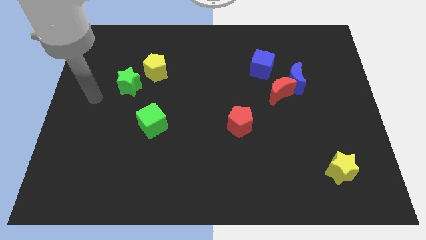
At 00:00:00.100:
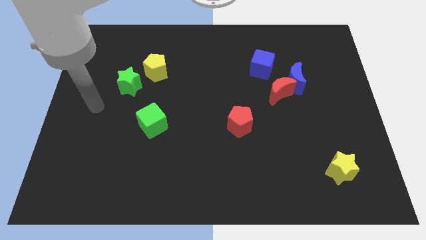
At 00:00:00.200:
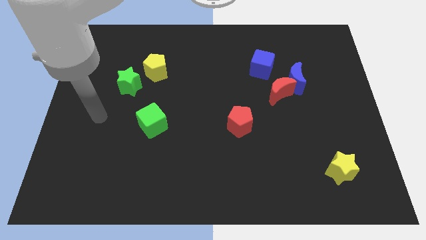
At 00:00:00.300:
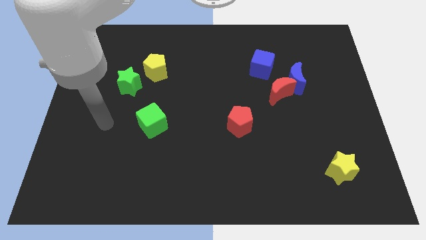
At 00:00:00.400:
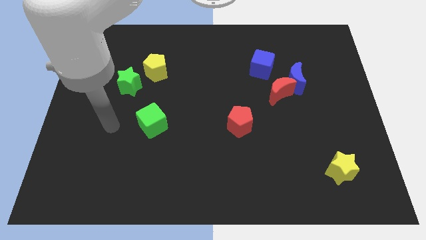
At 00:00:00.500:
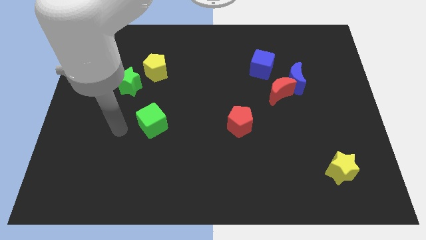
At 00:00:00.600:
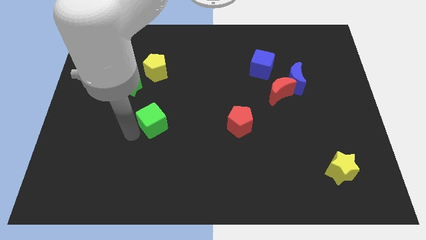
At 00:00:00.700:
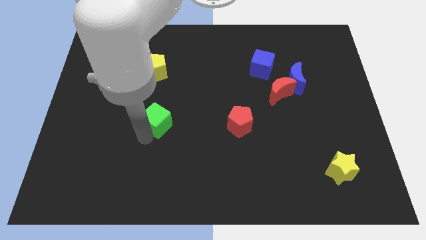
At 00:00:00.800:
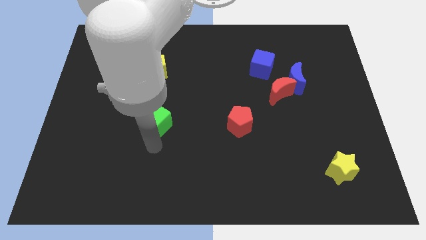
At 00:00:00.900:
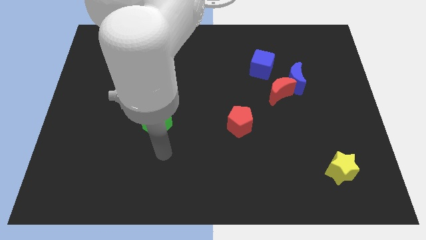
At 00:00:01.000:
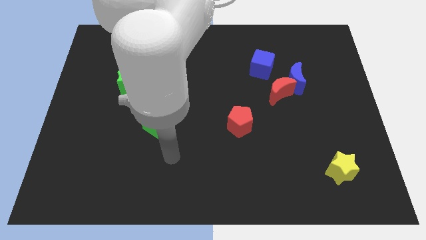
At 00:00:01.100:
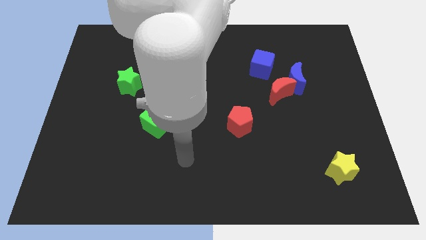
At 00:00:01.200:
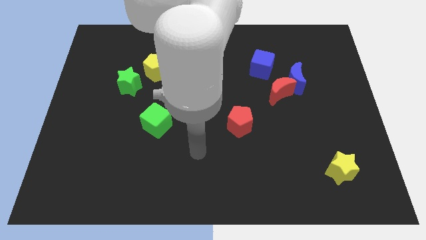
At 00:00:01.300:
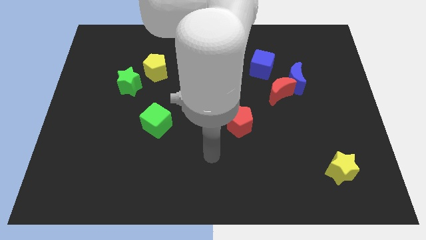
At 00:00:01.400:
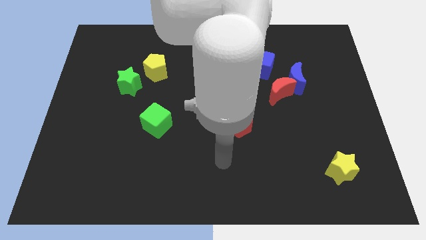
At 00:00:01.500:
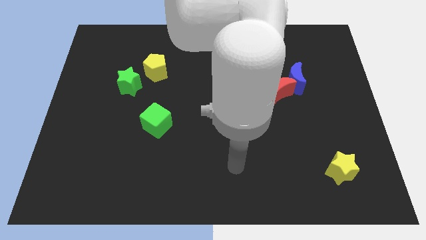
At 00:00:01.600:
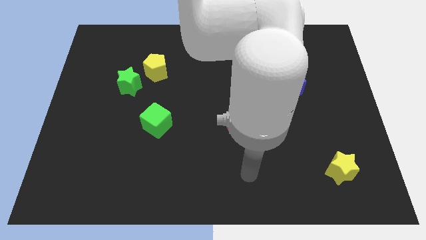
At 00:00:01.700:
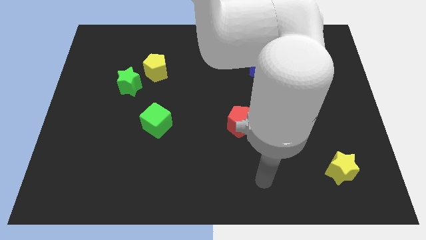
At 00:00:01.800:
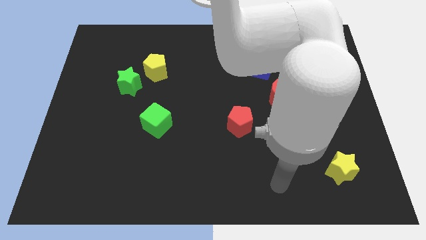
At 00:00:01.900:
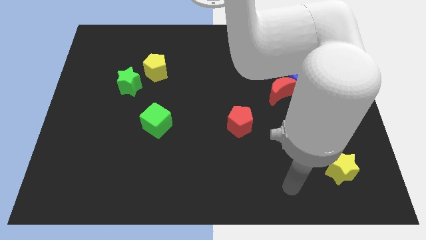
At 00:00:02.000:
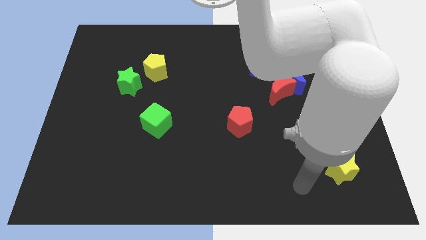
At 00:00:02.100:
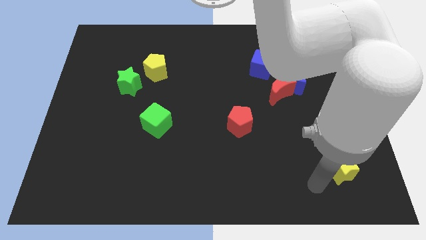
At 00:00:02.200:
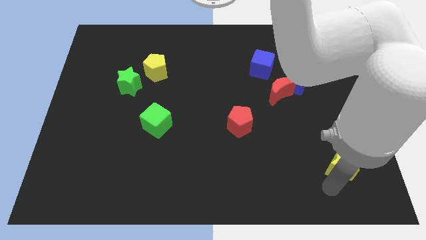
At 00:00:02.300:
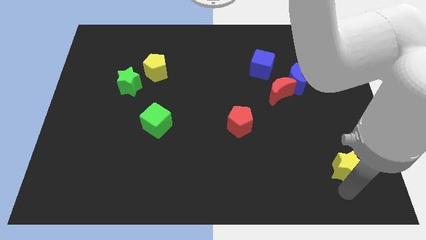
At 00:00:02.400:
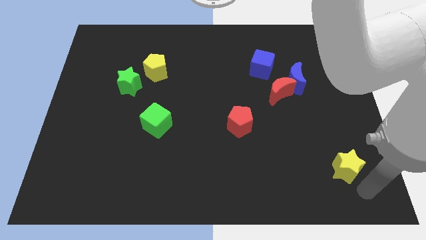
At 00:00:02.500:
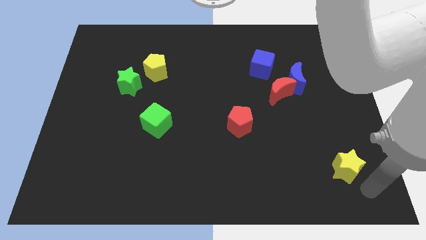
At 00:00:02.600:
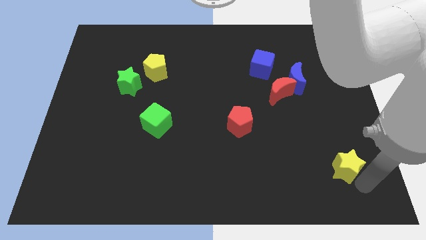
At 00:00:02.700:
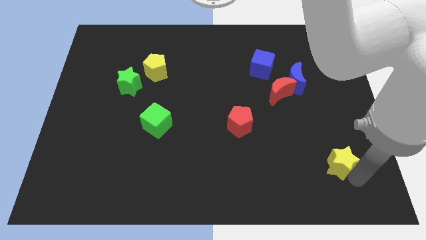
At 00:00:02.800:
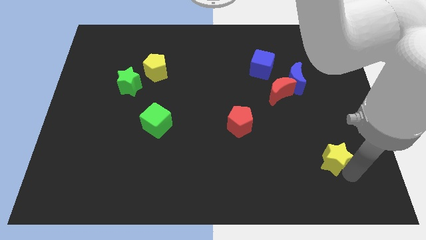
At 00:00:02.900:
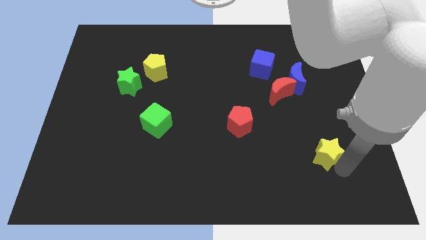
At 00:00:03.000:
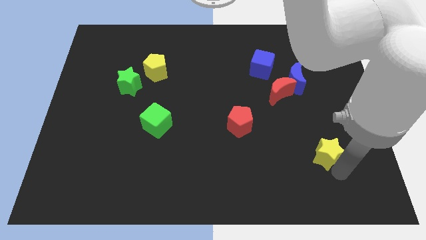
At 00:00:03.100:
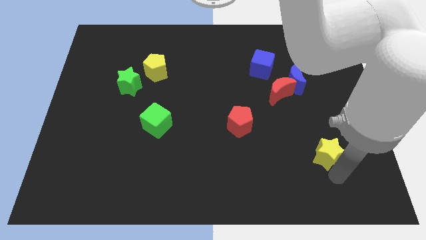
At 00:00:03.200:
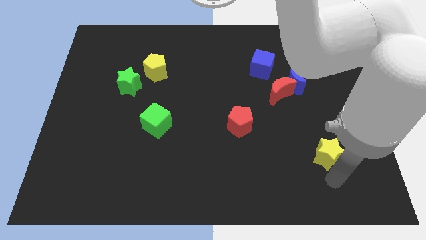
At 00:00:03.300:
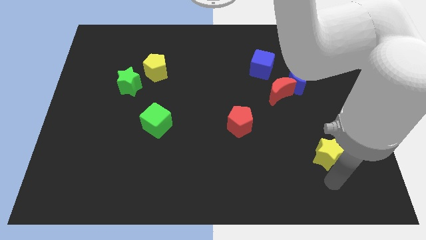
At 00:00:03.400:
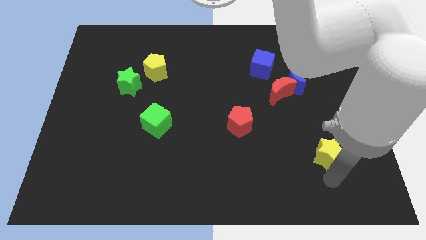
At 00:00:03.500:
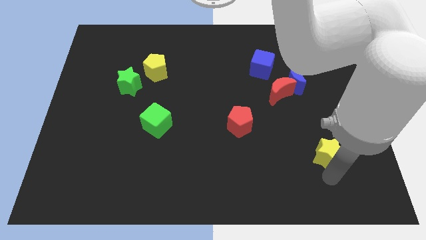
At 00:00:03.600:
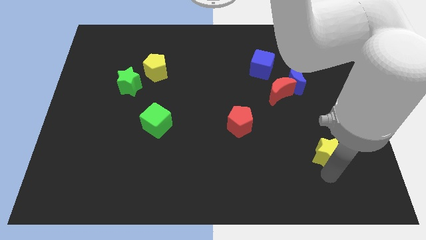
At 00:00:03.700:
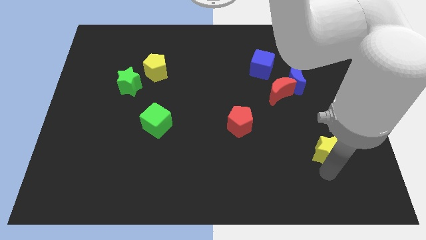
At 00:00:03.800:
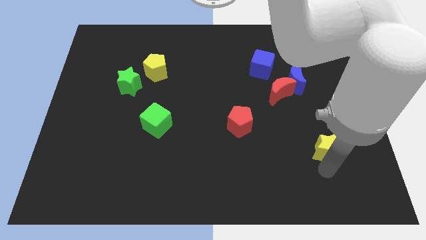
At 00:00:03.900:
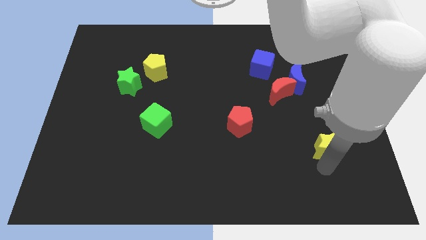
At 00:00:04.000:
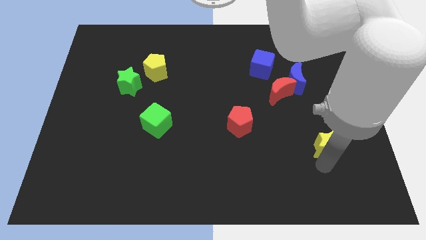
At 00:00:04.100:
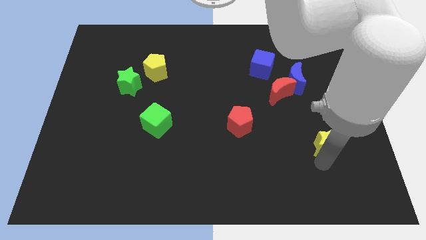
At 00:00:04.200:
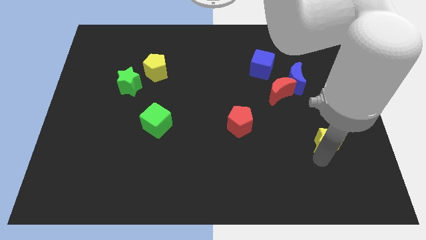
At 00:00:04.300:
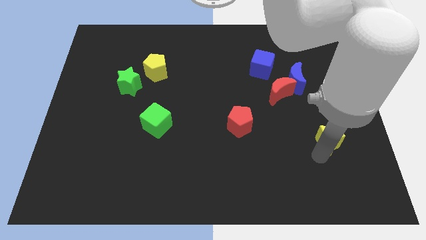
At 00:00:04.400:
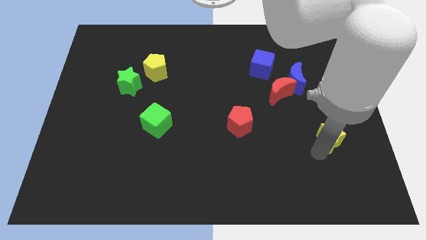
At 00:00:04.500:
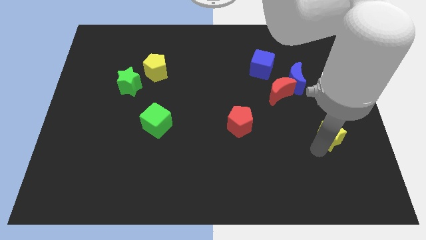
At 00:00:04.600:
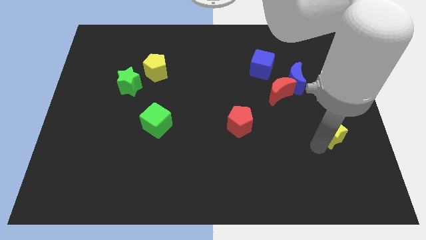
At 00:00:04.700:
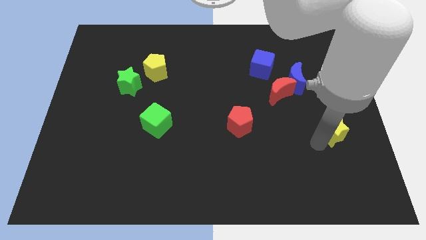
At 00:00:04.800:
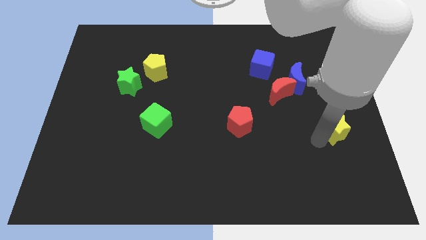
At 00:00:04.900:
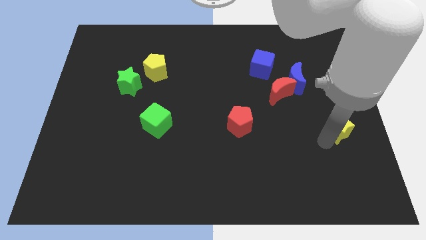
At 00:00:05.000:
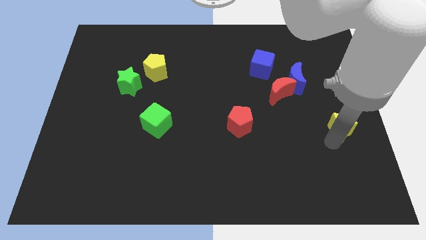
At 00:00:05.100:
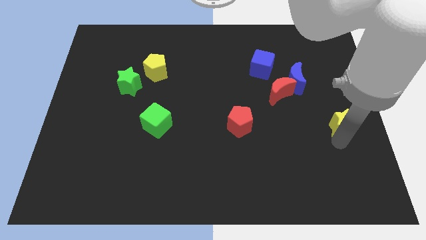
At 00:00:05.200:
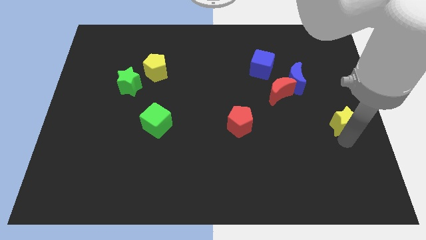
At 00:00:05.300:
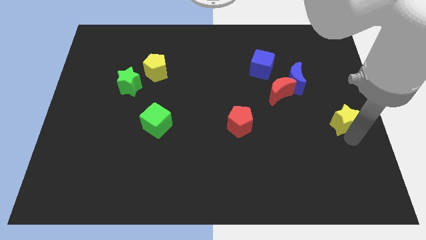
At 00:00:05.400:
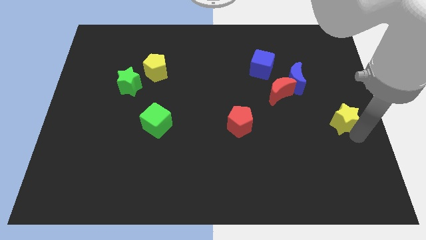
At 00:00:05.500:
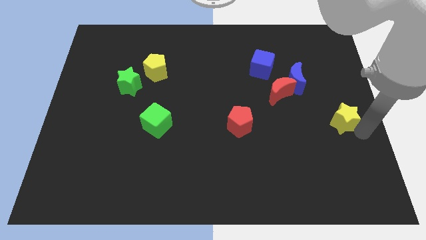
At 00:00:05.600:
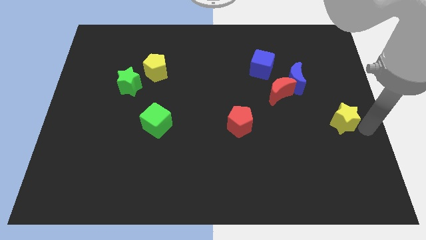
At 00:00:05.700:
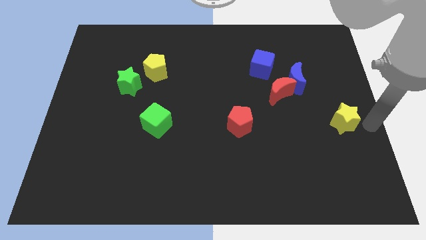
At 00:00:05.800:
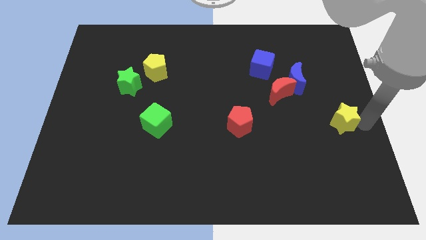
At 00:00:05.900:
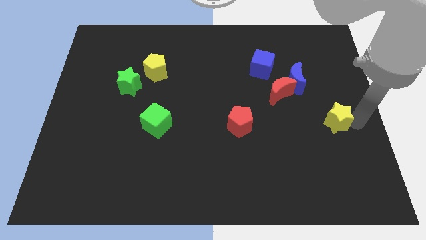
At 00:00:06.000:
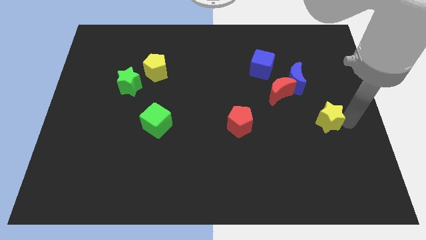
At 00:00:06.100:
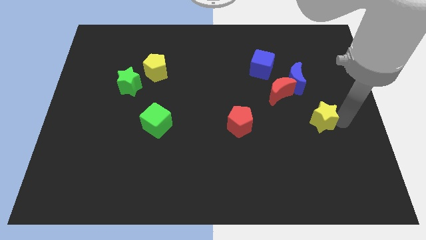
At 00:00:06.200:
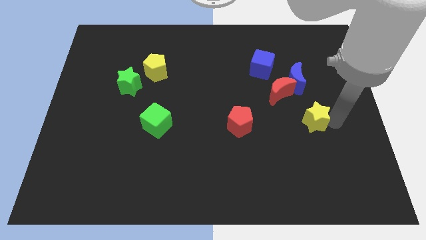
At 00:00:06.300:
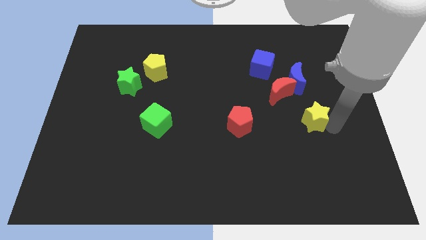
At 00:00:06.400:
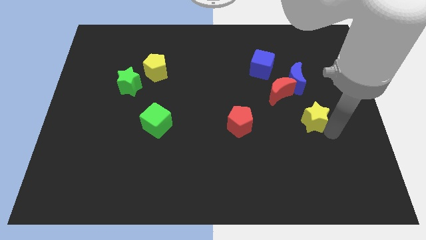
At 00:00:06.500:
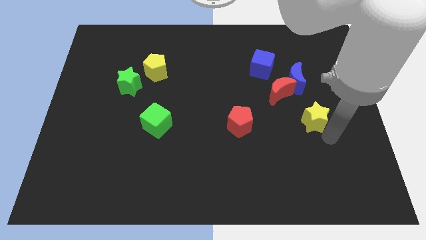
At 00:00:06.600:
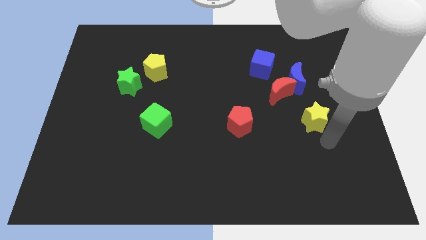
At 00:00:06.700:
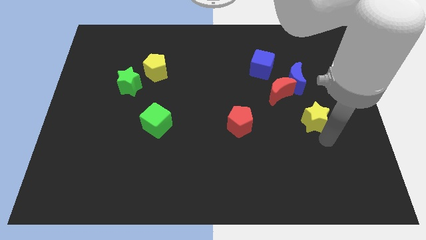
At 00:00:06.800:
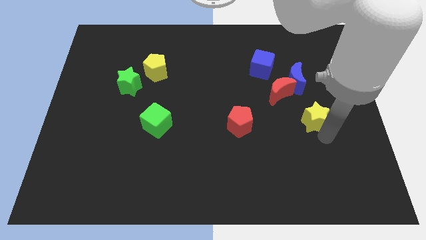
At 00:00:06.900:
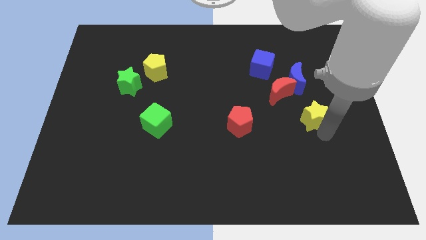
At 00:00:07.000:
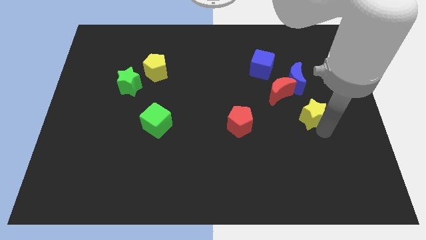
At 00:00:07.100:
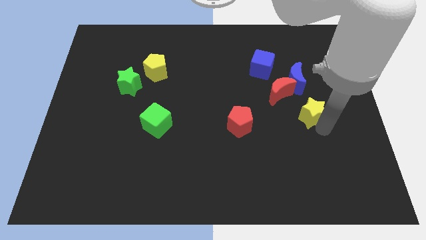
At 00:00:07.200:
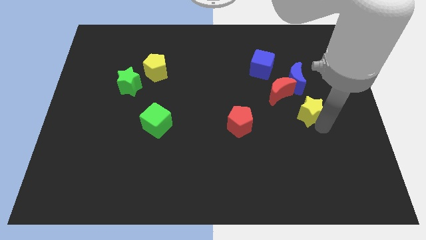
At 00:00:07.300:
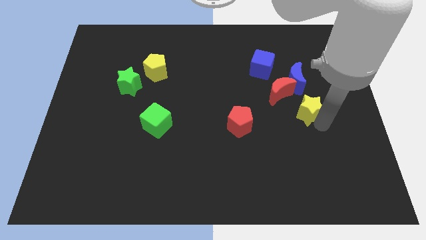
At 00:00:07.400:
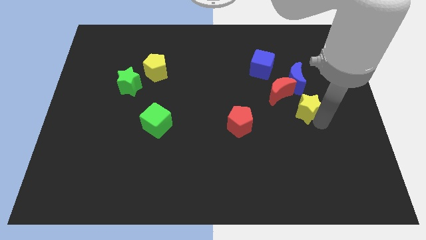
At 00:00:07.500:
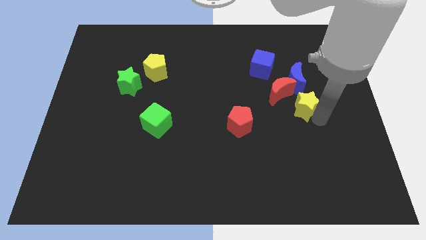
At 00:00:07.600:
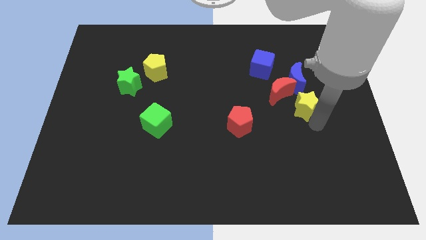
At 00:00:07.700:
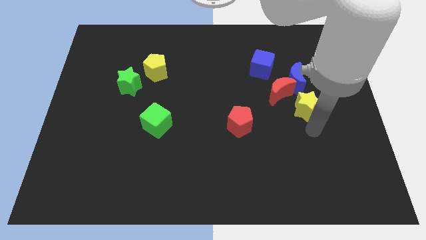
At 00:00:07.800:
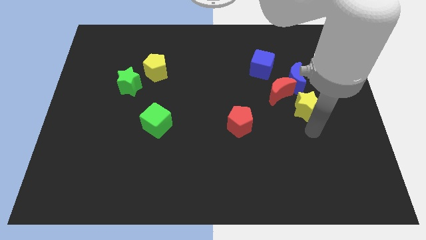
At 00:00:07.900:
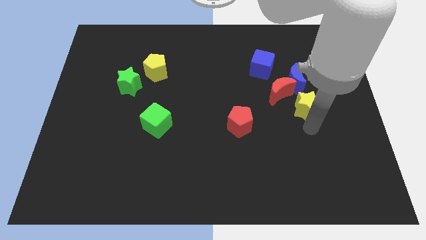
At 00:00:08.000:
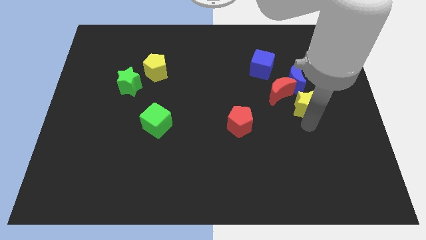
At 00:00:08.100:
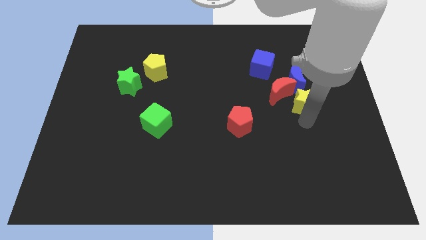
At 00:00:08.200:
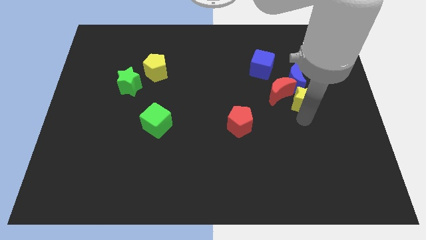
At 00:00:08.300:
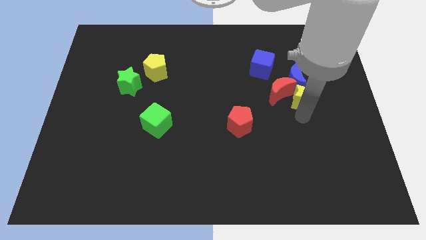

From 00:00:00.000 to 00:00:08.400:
slide the yellow star towards the blue moon
